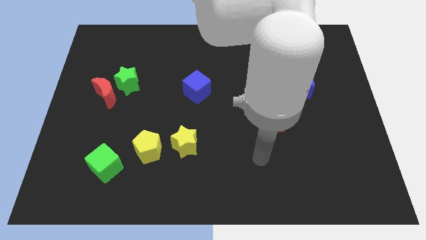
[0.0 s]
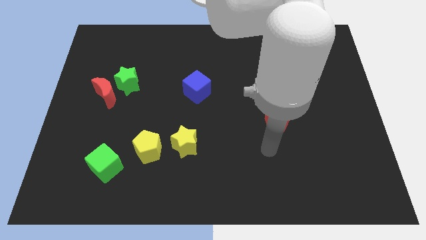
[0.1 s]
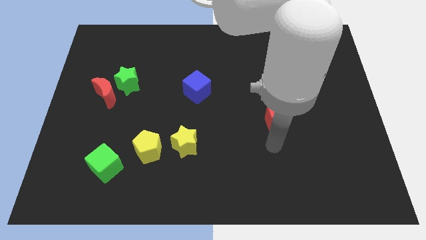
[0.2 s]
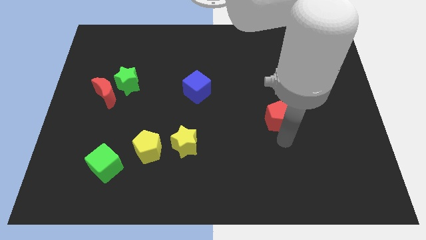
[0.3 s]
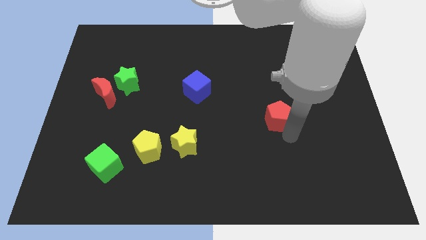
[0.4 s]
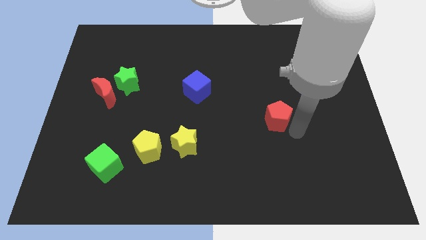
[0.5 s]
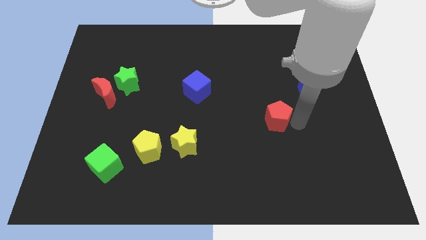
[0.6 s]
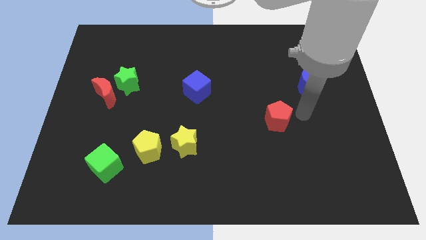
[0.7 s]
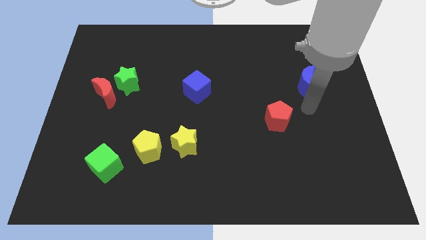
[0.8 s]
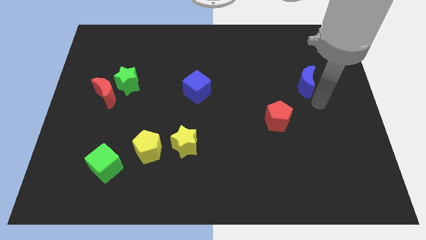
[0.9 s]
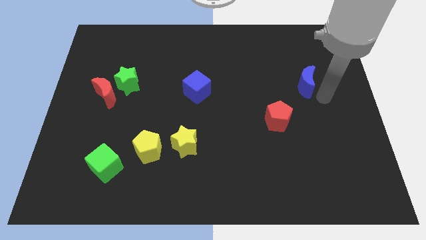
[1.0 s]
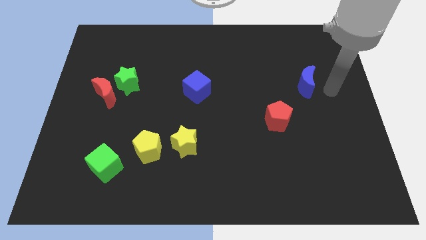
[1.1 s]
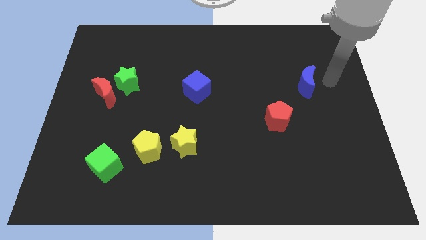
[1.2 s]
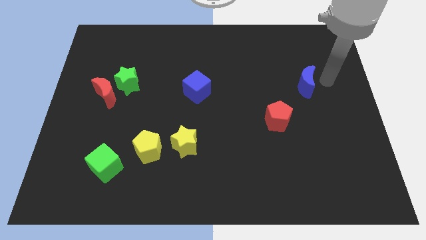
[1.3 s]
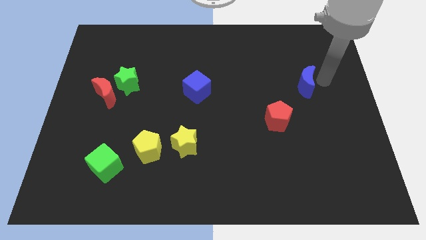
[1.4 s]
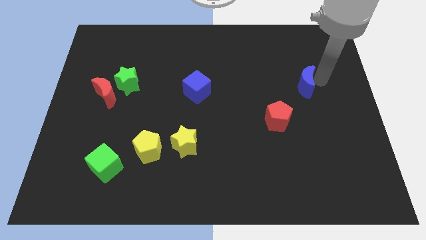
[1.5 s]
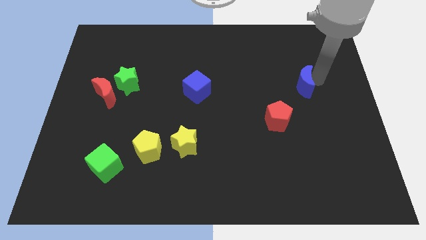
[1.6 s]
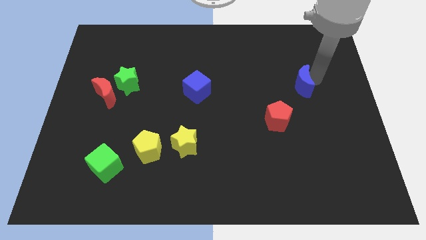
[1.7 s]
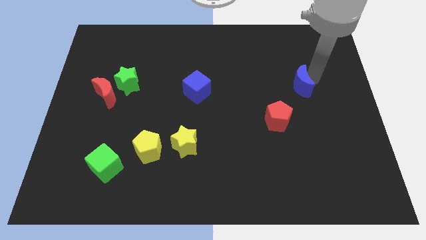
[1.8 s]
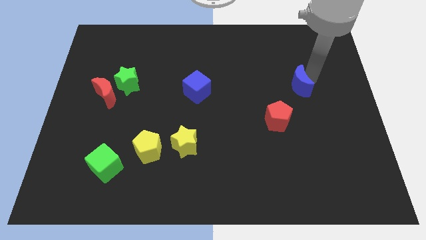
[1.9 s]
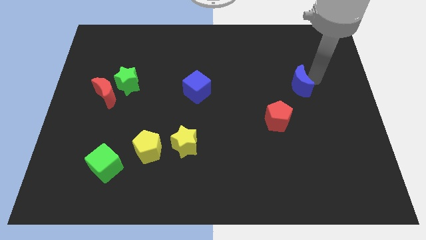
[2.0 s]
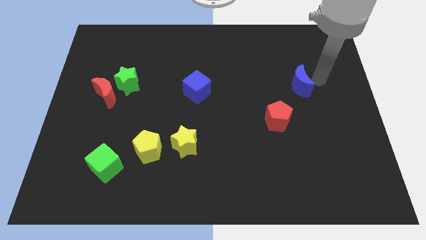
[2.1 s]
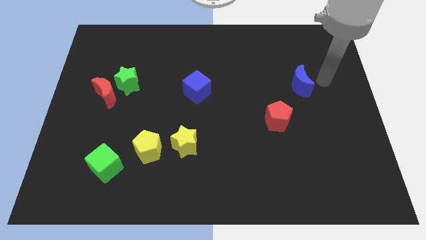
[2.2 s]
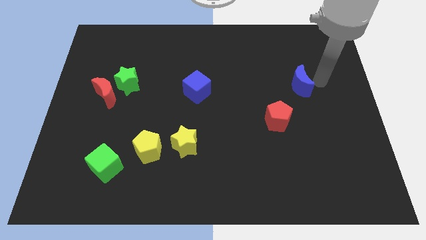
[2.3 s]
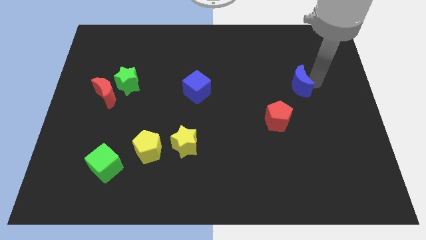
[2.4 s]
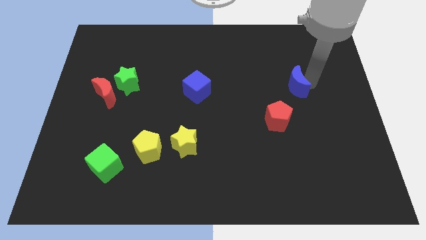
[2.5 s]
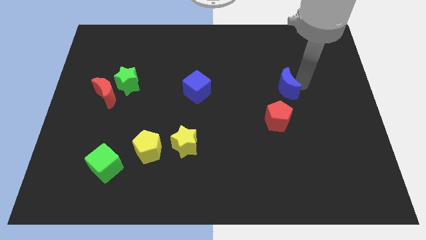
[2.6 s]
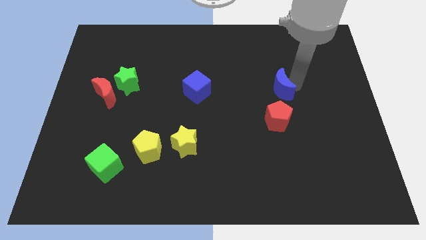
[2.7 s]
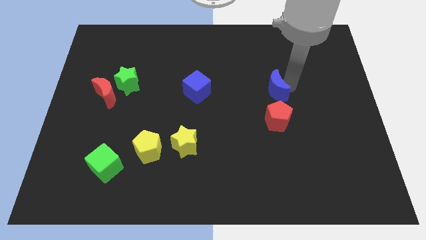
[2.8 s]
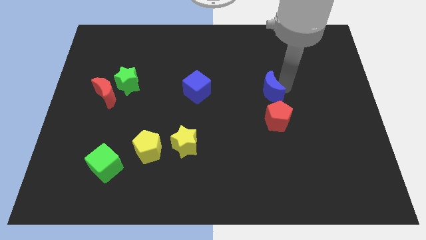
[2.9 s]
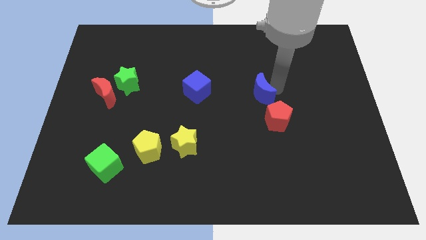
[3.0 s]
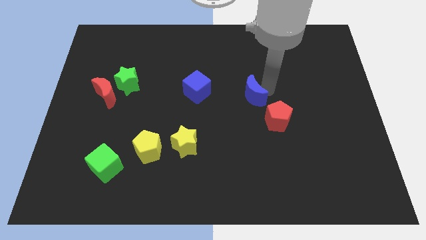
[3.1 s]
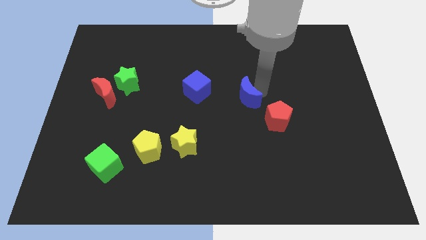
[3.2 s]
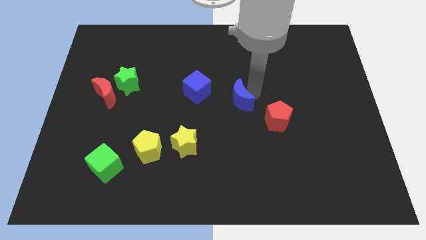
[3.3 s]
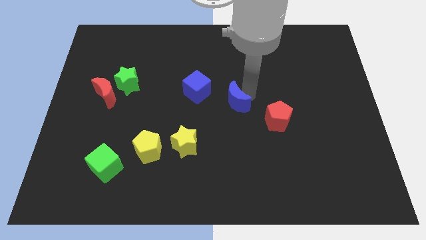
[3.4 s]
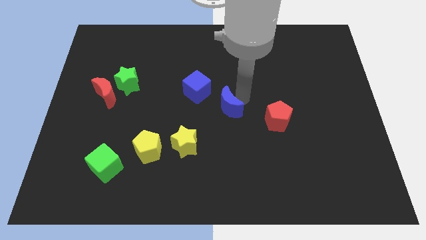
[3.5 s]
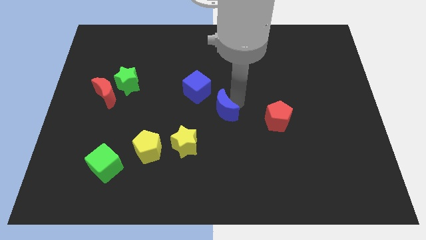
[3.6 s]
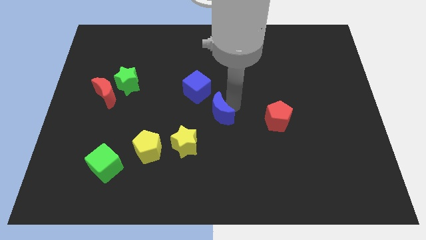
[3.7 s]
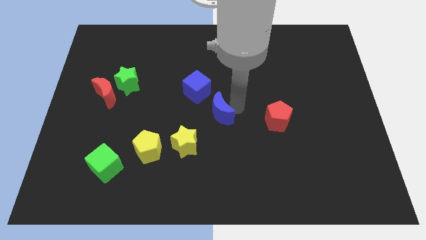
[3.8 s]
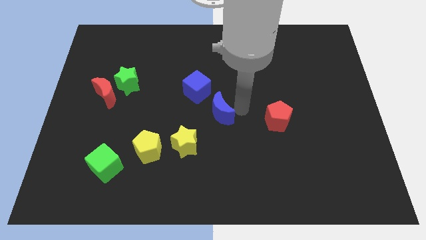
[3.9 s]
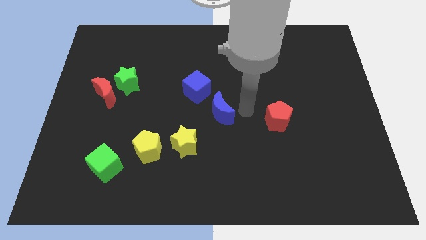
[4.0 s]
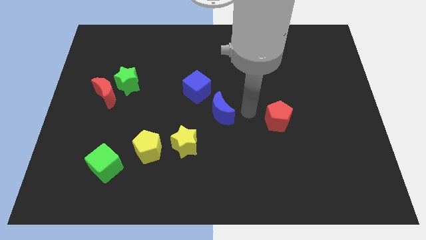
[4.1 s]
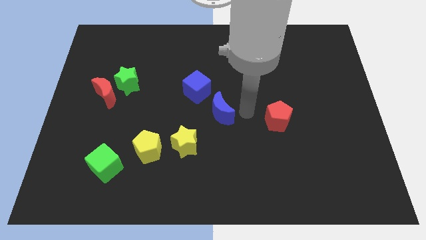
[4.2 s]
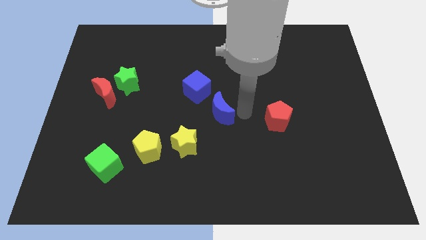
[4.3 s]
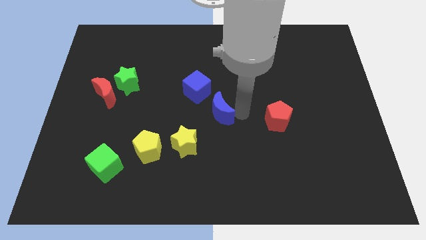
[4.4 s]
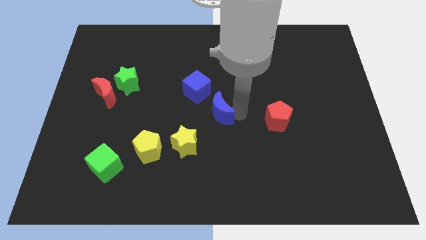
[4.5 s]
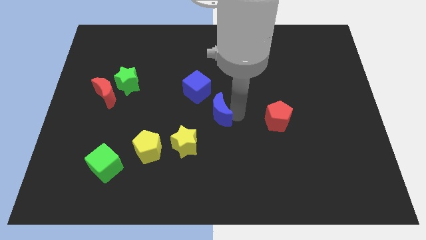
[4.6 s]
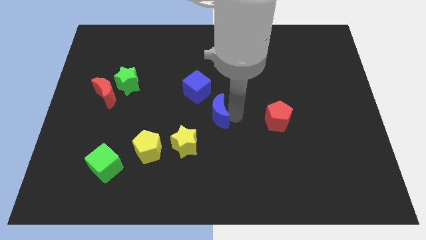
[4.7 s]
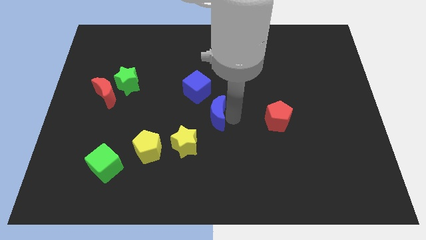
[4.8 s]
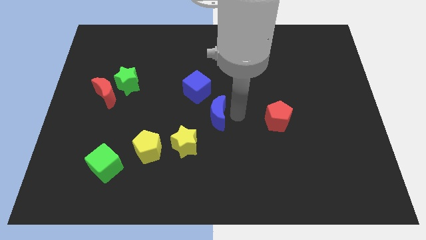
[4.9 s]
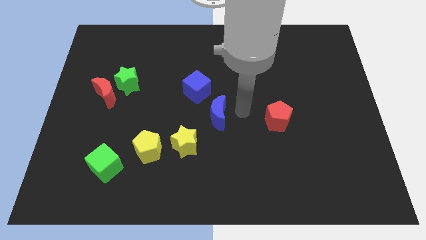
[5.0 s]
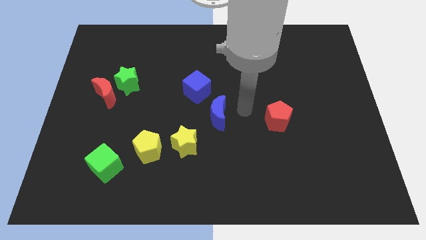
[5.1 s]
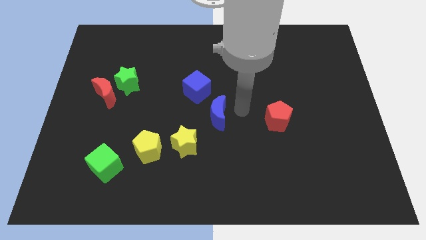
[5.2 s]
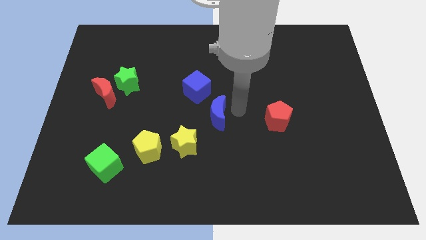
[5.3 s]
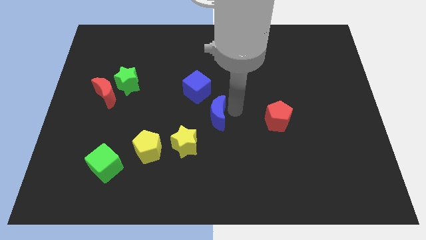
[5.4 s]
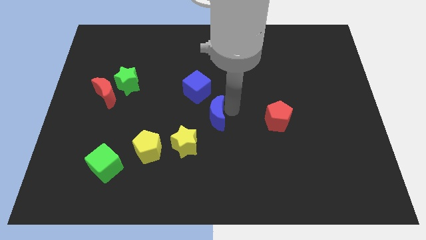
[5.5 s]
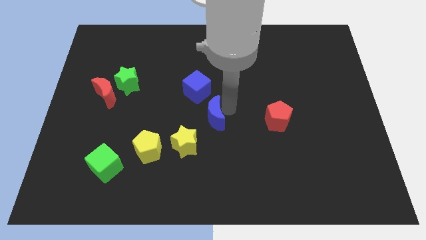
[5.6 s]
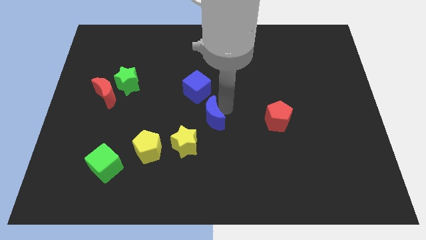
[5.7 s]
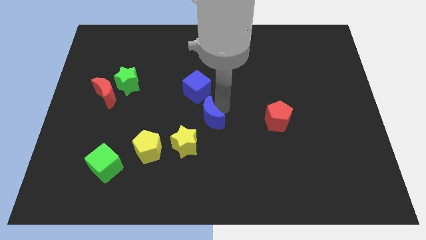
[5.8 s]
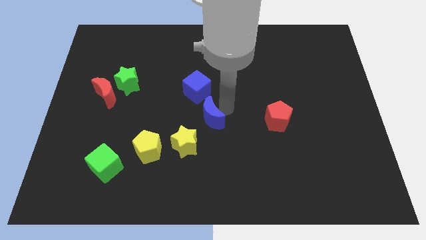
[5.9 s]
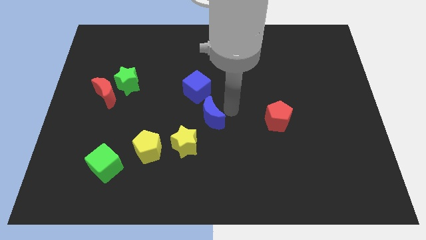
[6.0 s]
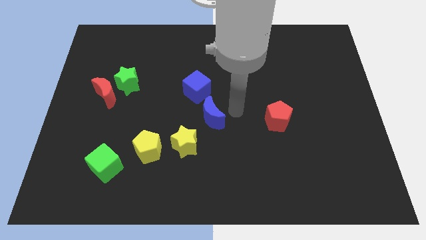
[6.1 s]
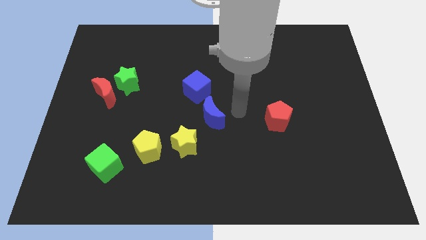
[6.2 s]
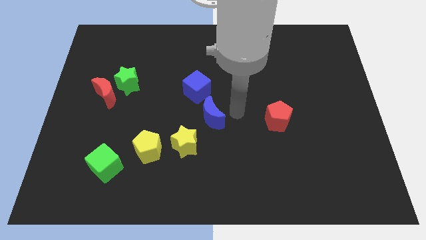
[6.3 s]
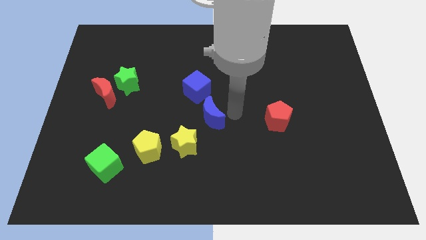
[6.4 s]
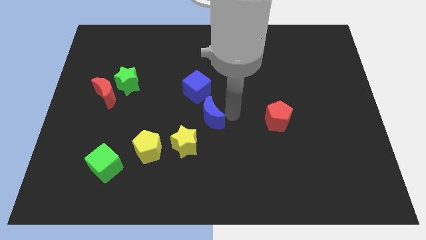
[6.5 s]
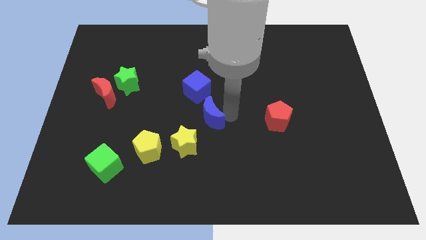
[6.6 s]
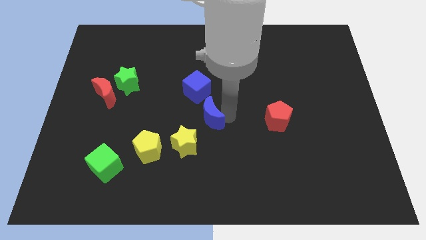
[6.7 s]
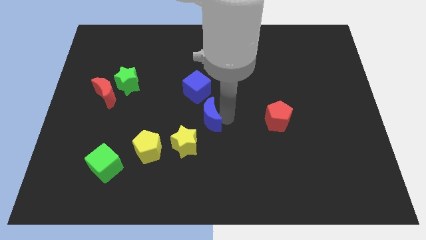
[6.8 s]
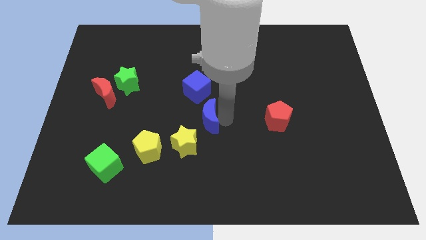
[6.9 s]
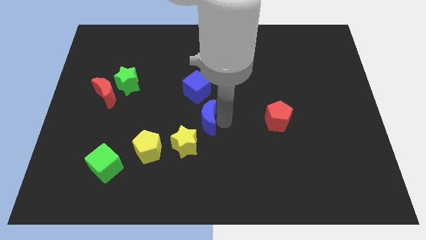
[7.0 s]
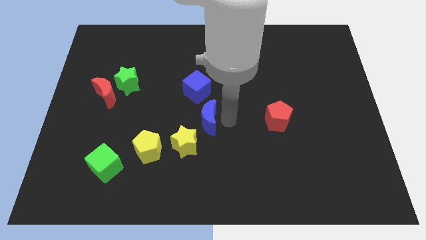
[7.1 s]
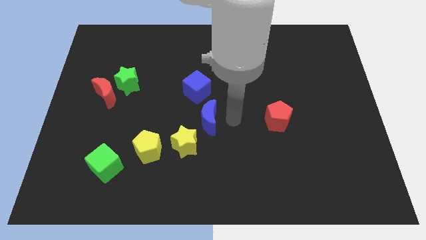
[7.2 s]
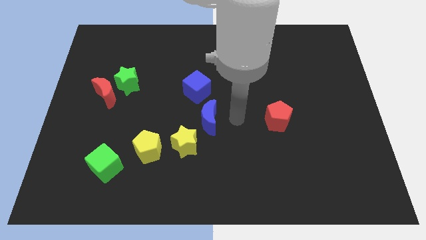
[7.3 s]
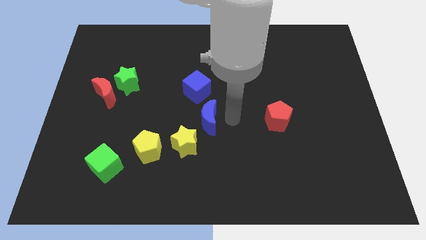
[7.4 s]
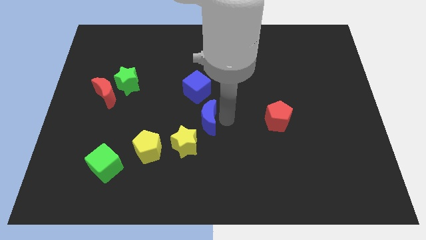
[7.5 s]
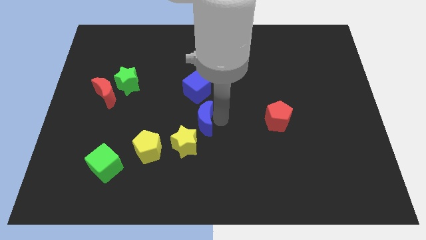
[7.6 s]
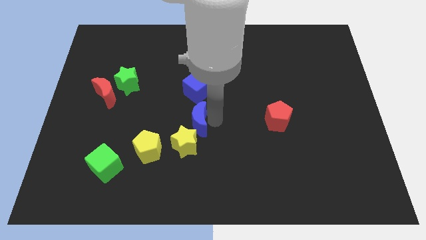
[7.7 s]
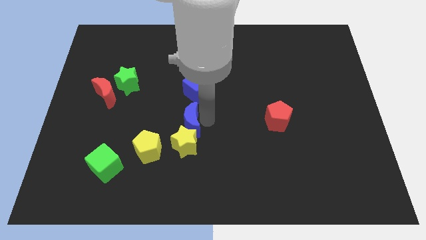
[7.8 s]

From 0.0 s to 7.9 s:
put the blue moon diagonally up and to the right of the yellow pentagon
